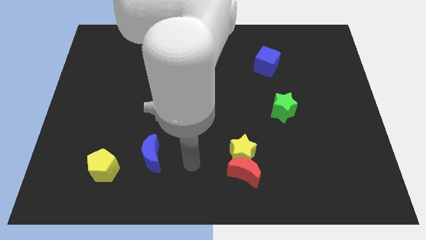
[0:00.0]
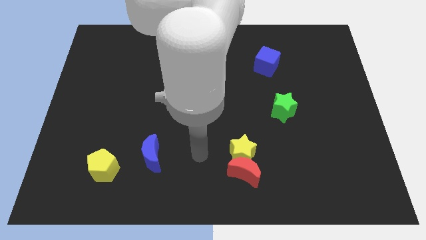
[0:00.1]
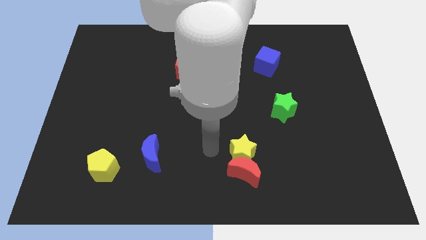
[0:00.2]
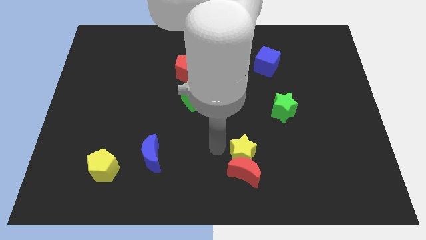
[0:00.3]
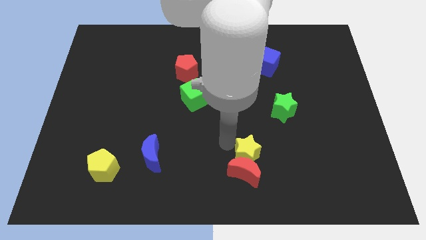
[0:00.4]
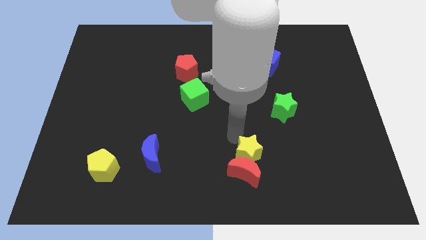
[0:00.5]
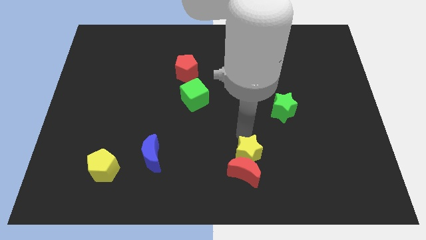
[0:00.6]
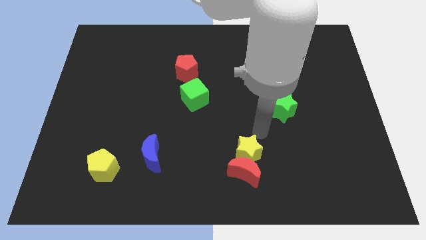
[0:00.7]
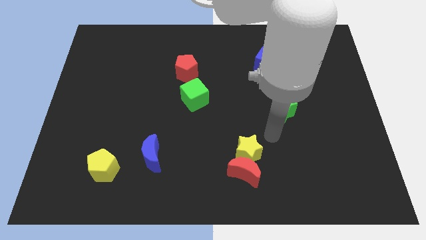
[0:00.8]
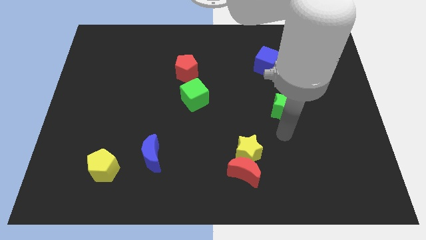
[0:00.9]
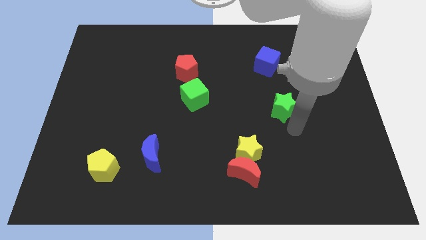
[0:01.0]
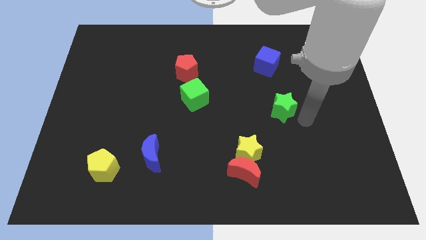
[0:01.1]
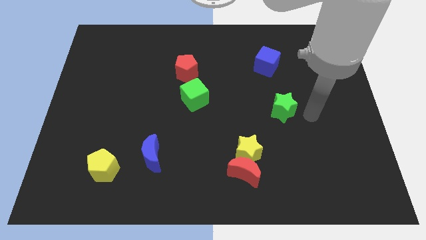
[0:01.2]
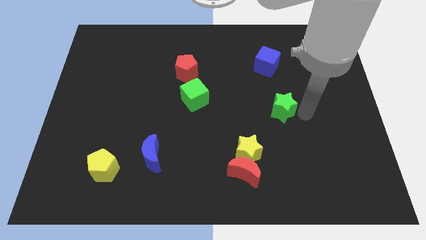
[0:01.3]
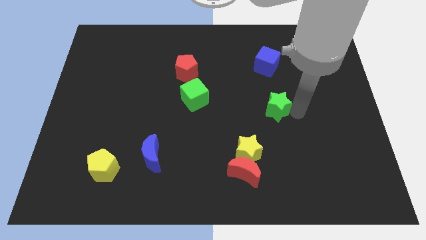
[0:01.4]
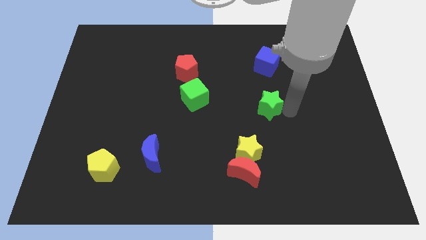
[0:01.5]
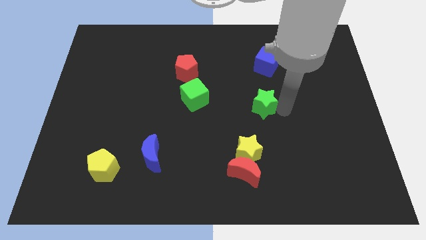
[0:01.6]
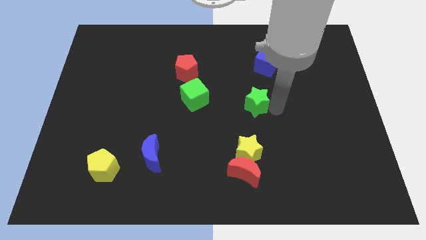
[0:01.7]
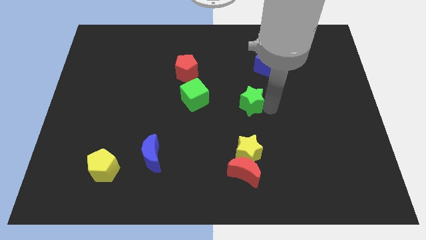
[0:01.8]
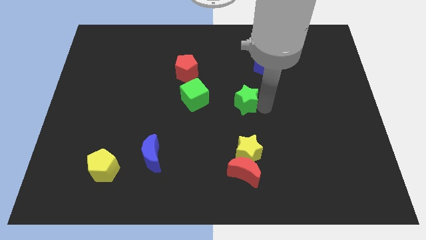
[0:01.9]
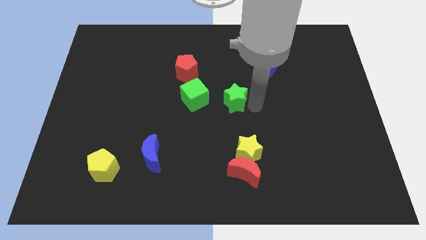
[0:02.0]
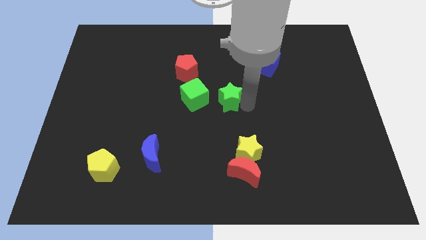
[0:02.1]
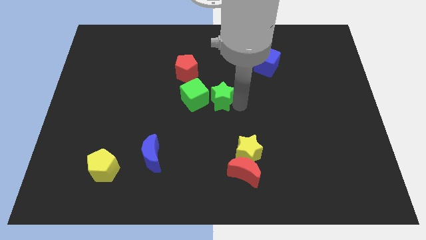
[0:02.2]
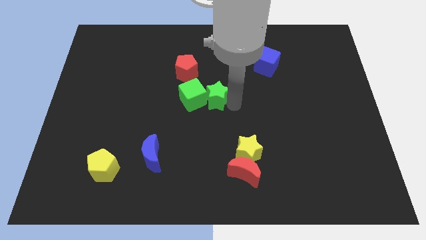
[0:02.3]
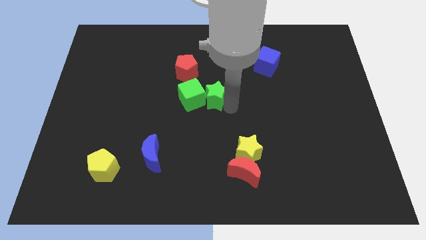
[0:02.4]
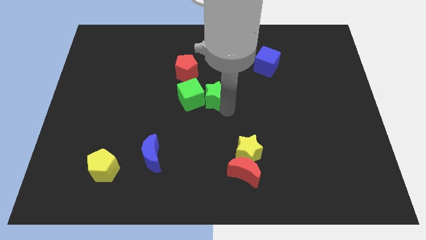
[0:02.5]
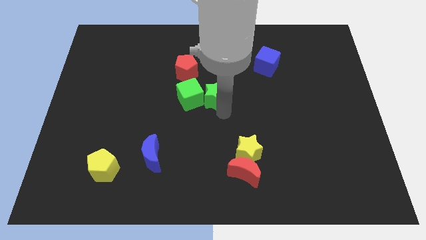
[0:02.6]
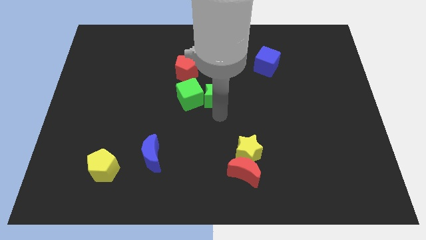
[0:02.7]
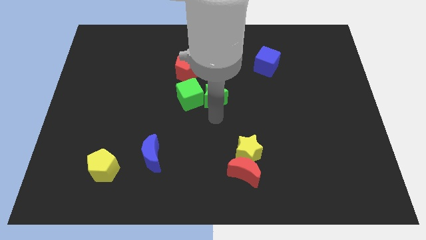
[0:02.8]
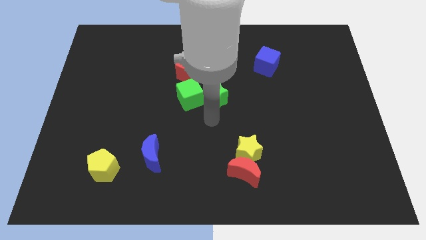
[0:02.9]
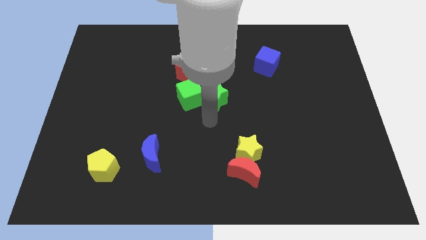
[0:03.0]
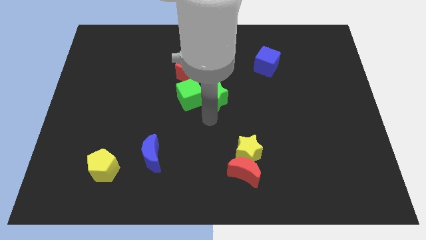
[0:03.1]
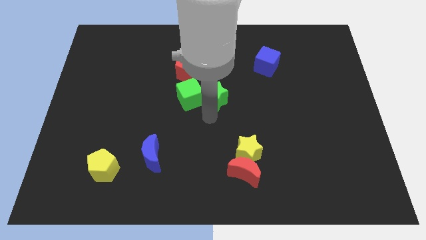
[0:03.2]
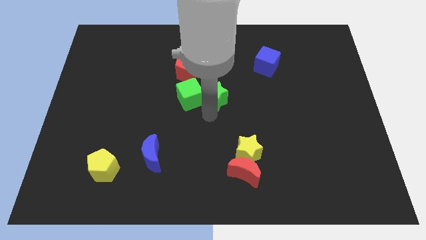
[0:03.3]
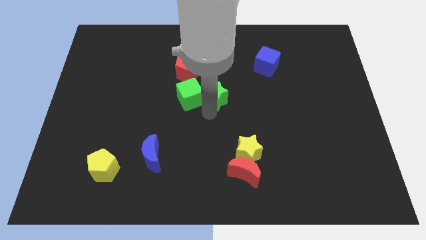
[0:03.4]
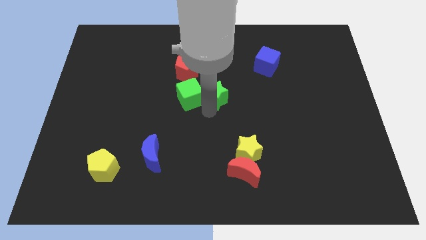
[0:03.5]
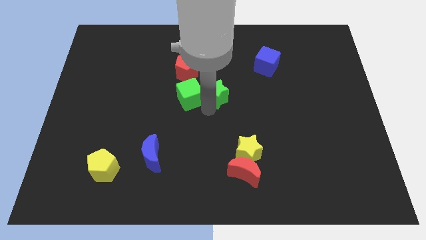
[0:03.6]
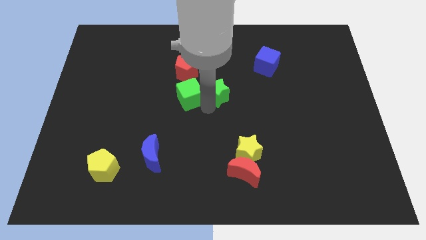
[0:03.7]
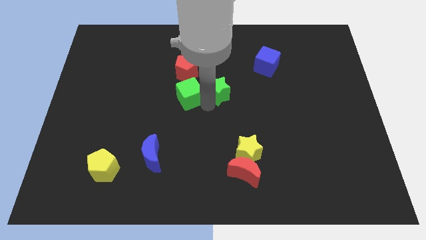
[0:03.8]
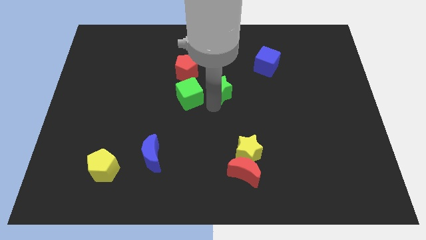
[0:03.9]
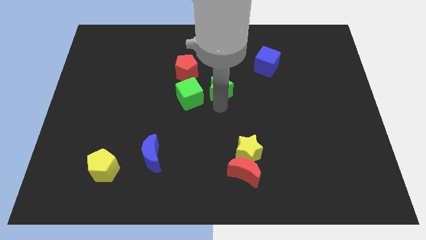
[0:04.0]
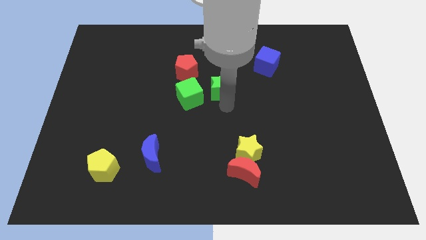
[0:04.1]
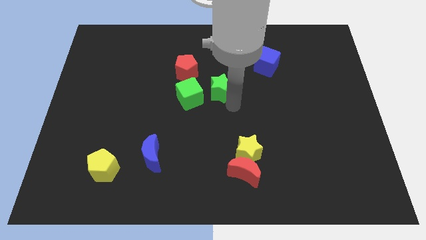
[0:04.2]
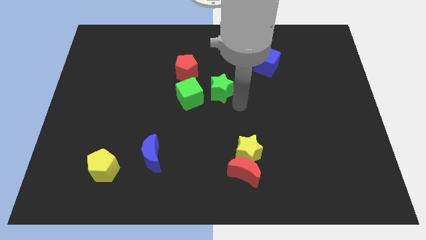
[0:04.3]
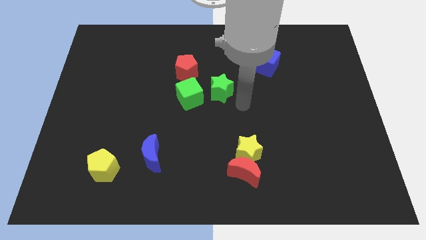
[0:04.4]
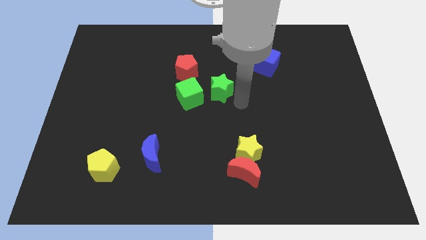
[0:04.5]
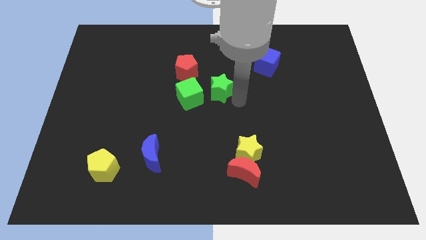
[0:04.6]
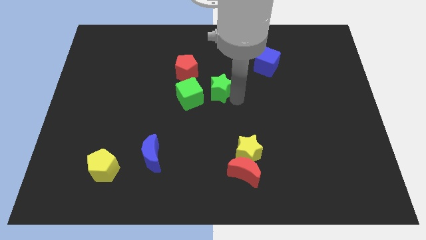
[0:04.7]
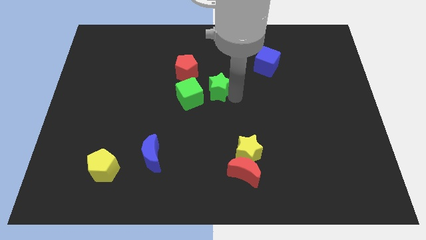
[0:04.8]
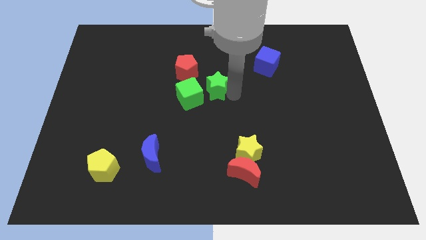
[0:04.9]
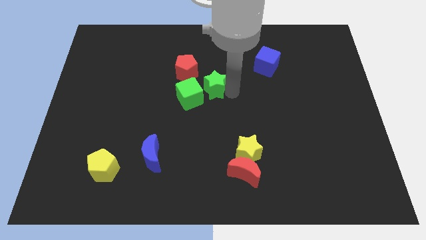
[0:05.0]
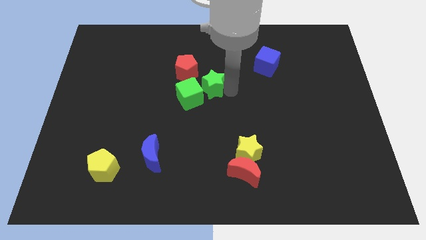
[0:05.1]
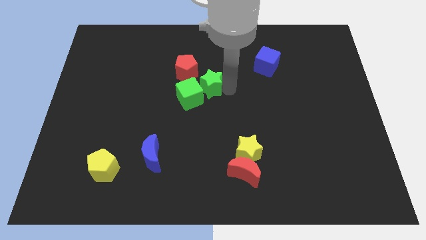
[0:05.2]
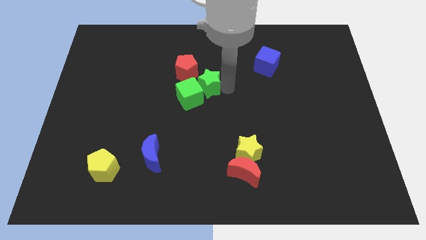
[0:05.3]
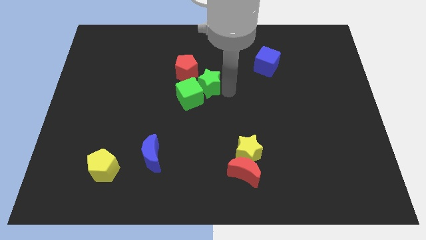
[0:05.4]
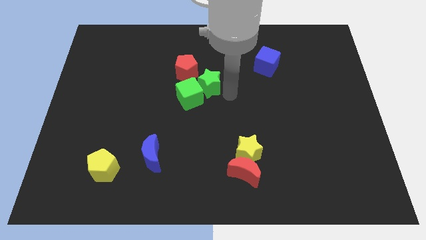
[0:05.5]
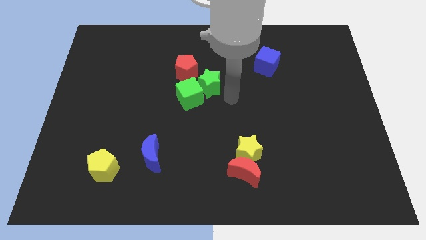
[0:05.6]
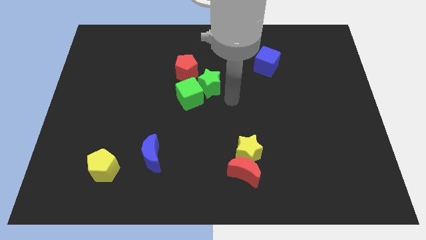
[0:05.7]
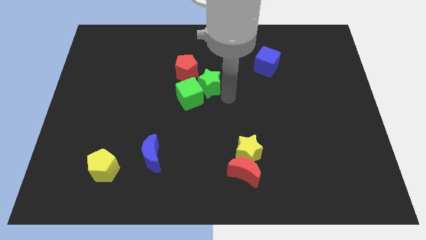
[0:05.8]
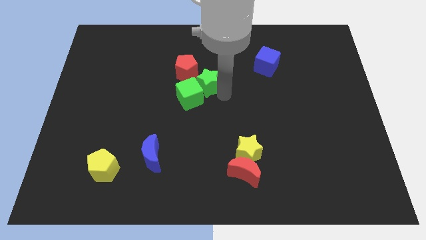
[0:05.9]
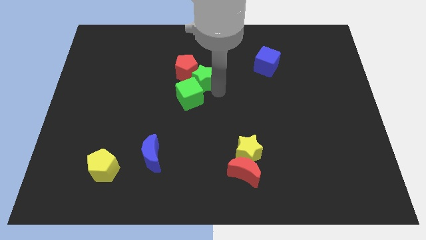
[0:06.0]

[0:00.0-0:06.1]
slide the green star towards the red pentagon

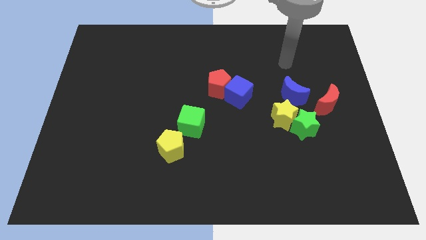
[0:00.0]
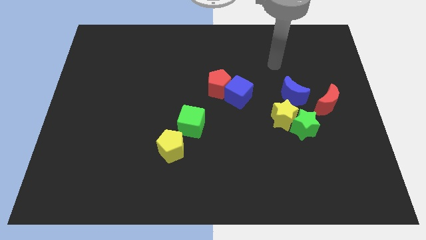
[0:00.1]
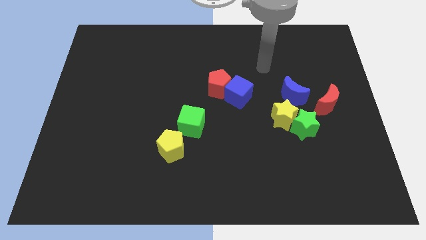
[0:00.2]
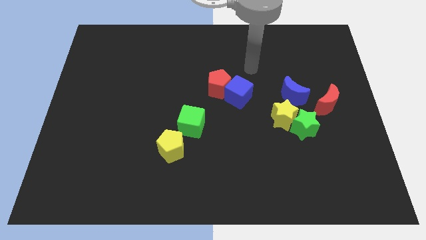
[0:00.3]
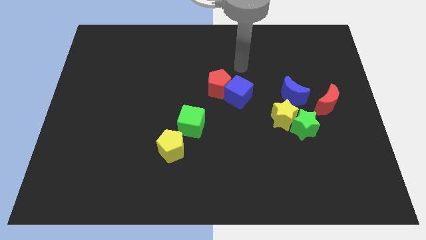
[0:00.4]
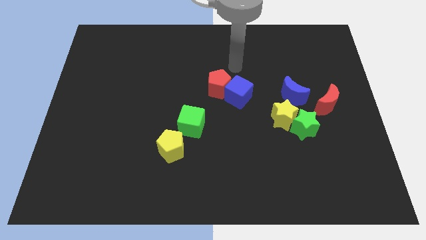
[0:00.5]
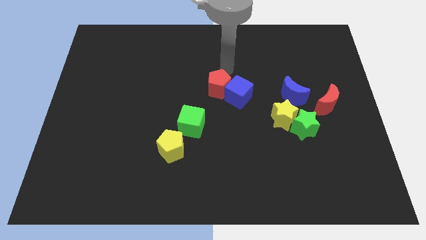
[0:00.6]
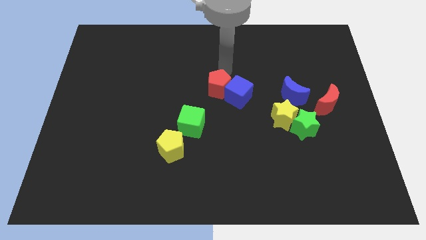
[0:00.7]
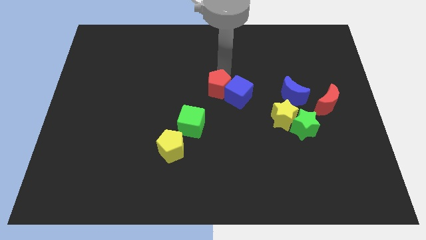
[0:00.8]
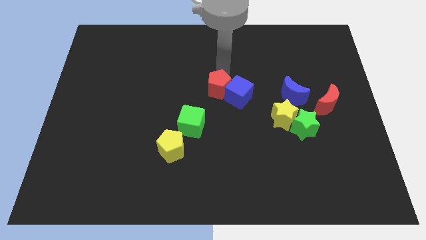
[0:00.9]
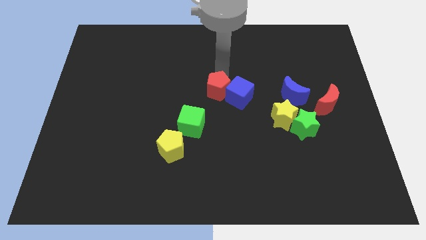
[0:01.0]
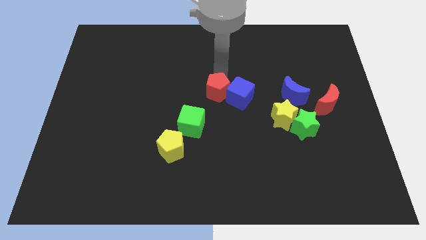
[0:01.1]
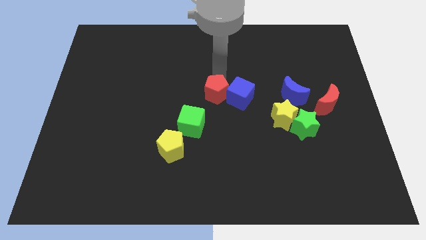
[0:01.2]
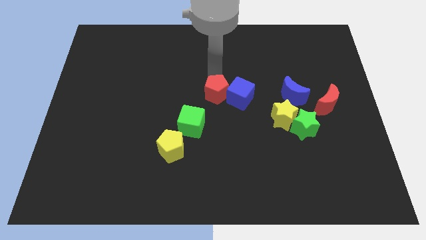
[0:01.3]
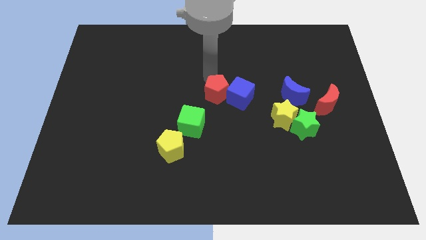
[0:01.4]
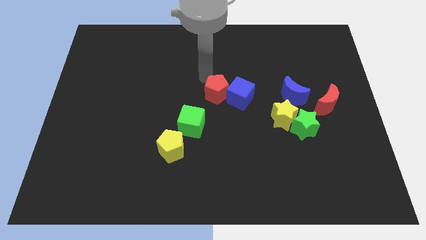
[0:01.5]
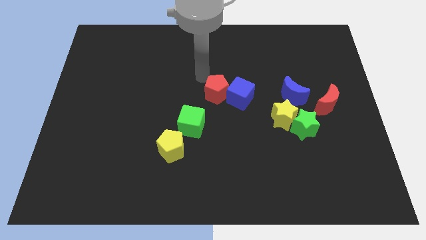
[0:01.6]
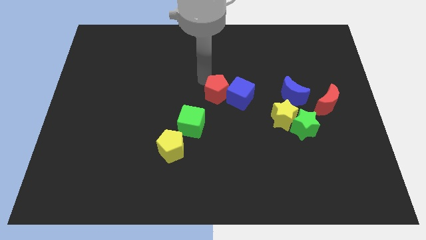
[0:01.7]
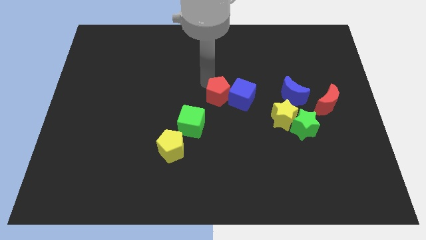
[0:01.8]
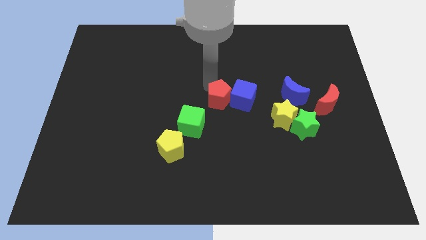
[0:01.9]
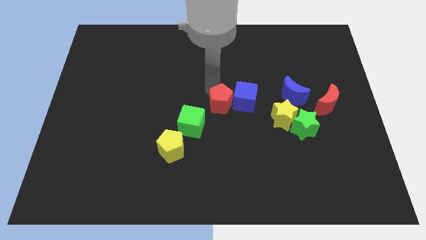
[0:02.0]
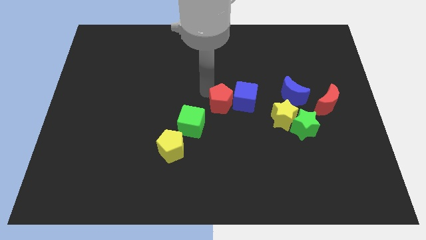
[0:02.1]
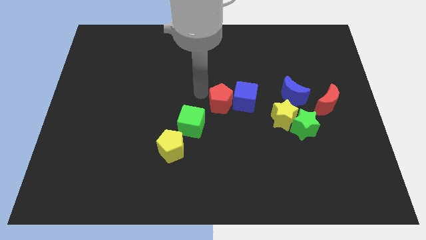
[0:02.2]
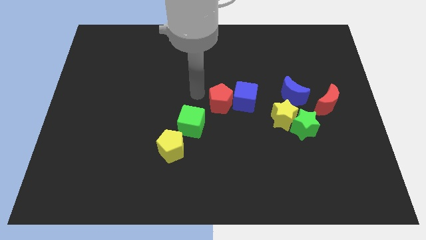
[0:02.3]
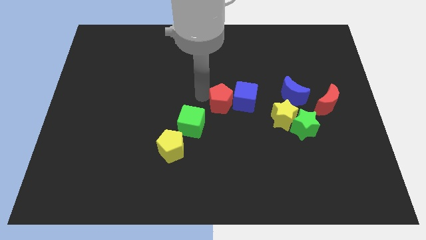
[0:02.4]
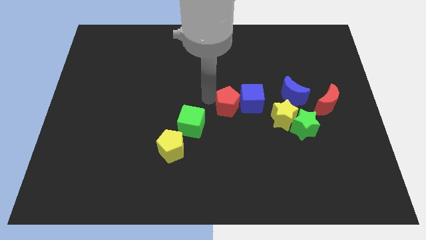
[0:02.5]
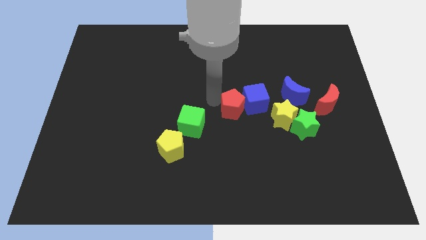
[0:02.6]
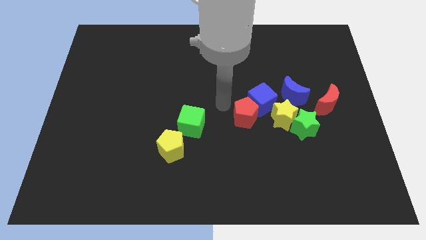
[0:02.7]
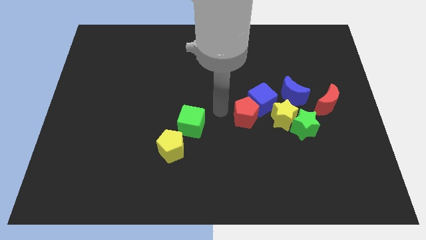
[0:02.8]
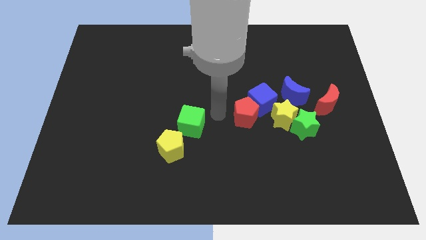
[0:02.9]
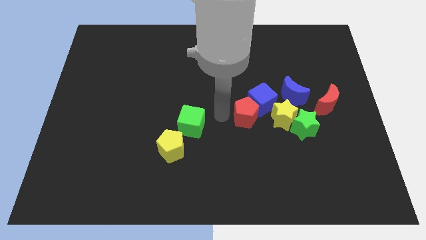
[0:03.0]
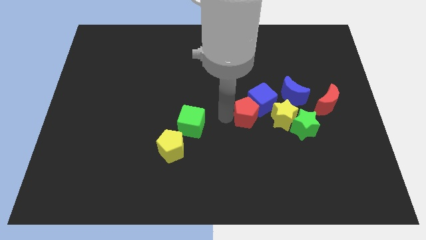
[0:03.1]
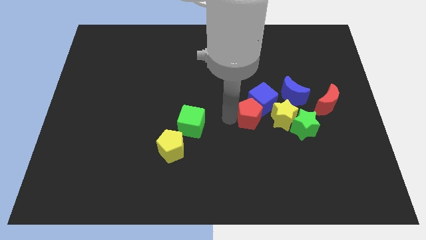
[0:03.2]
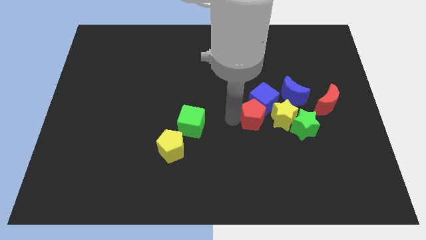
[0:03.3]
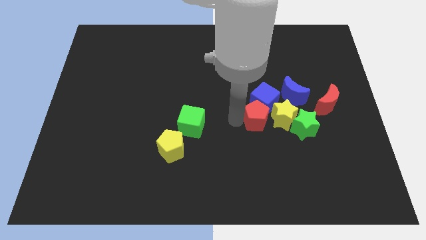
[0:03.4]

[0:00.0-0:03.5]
push the red pentagon to the yellow star
